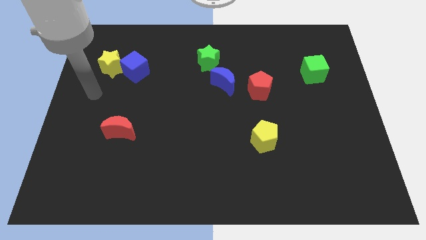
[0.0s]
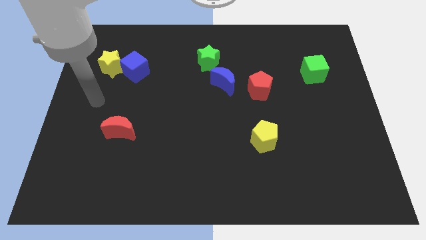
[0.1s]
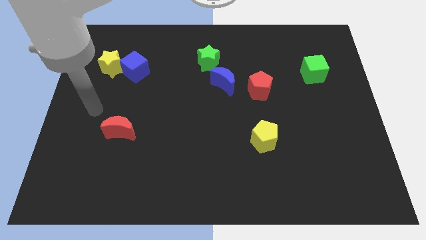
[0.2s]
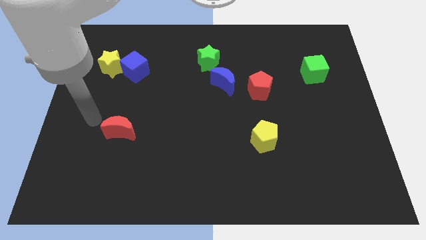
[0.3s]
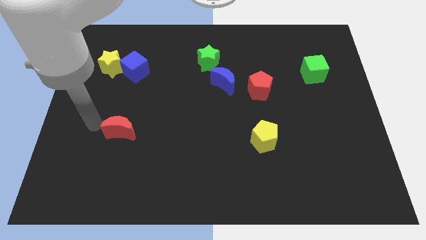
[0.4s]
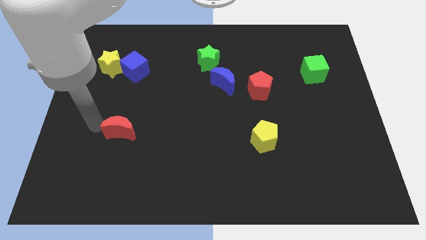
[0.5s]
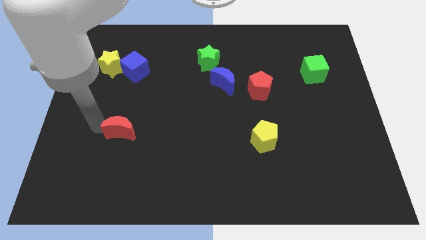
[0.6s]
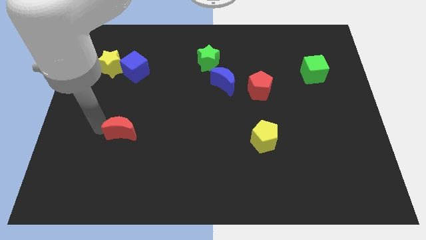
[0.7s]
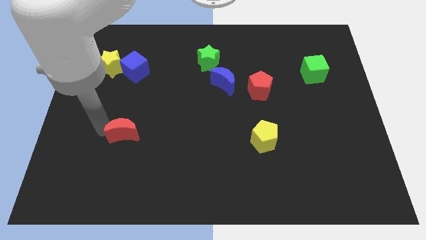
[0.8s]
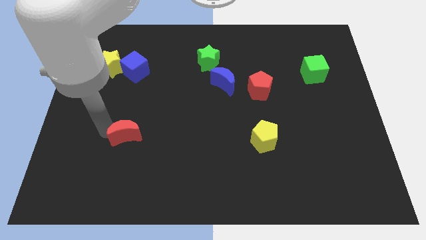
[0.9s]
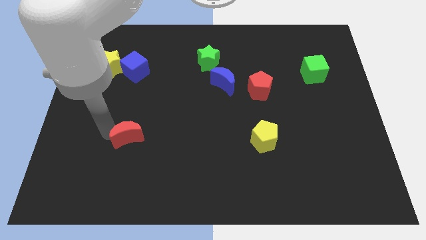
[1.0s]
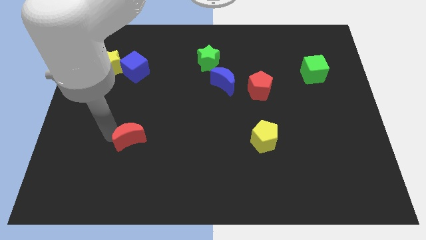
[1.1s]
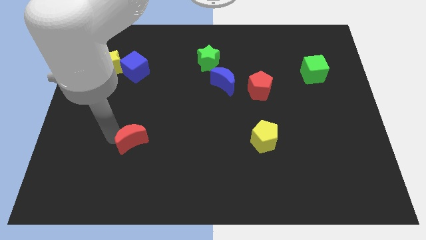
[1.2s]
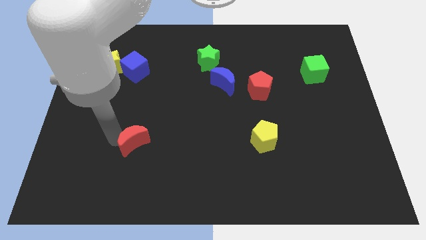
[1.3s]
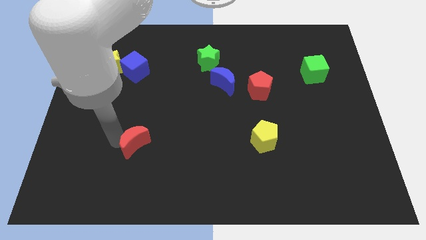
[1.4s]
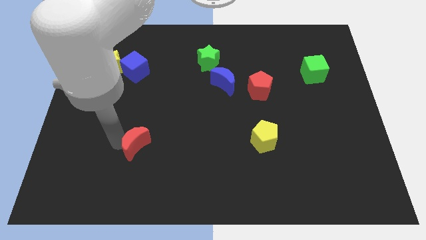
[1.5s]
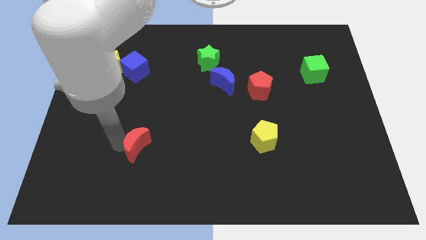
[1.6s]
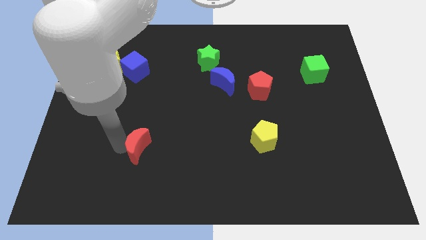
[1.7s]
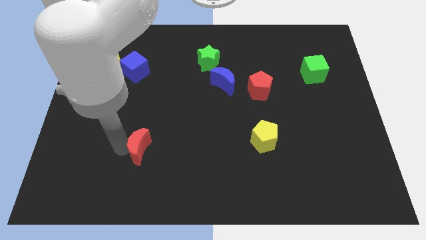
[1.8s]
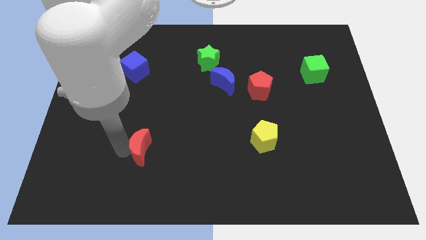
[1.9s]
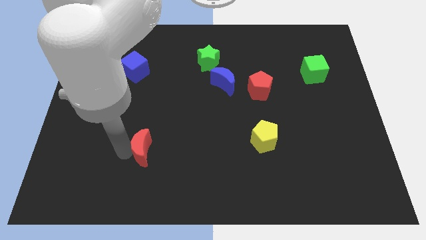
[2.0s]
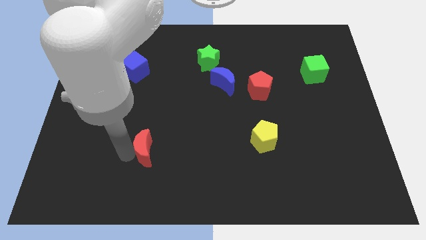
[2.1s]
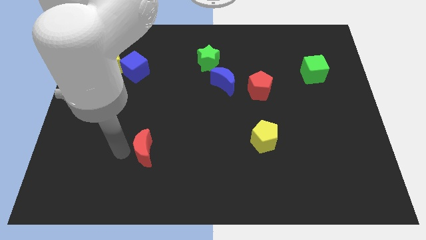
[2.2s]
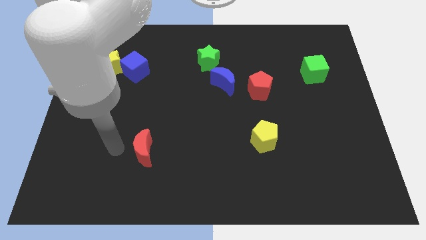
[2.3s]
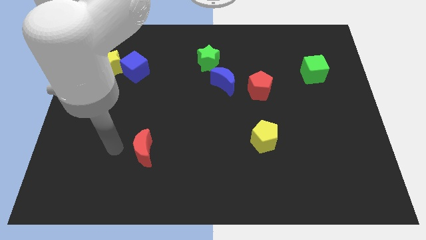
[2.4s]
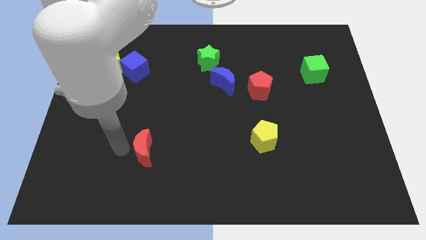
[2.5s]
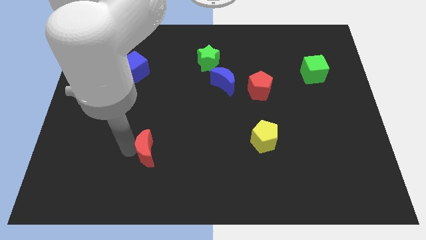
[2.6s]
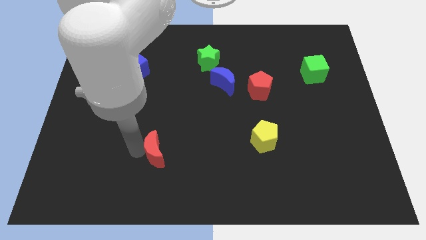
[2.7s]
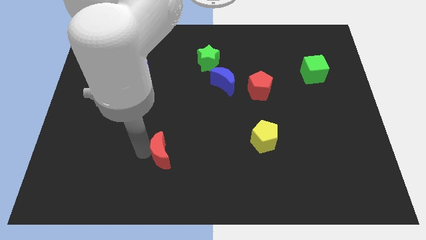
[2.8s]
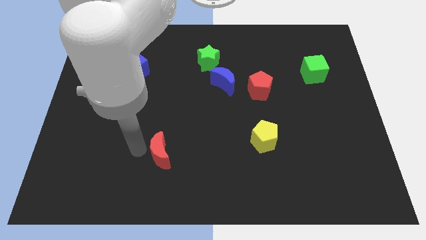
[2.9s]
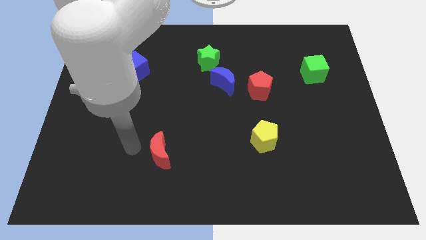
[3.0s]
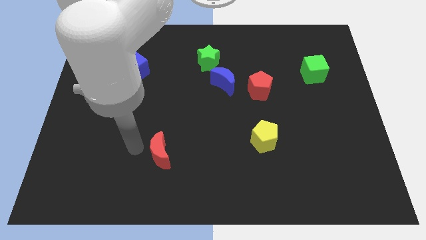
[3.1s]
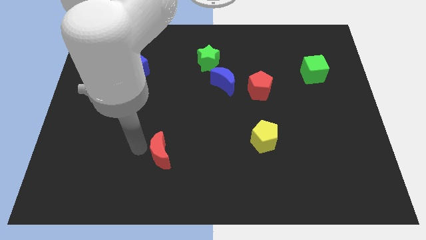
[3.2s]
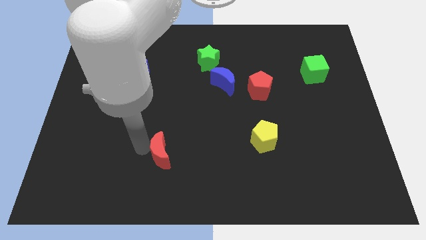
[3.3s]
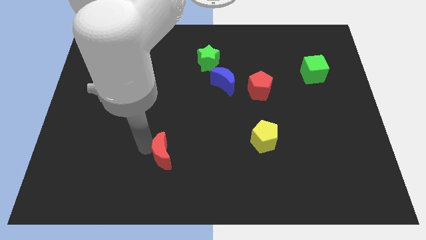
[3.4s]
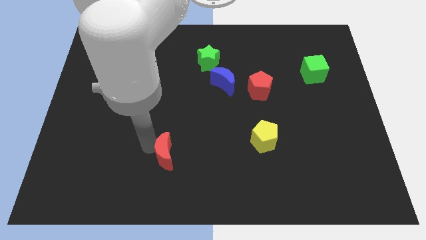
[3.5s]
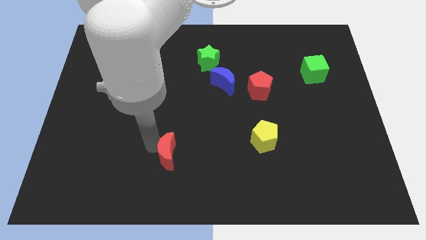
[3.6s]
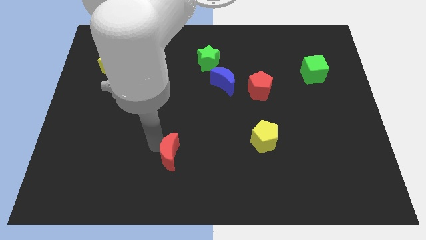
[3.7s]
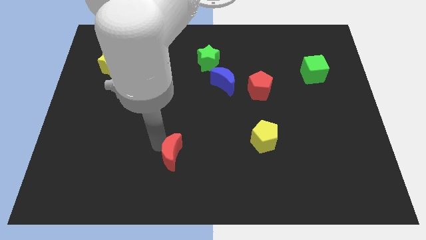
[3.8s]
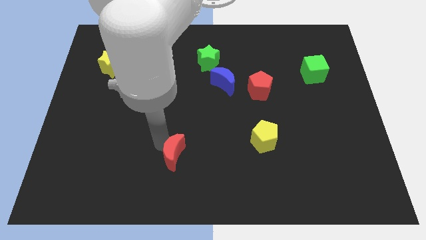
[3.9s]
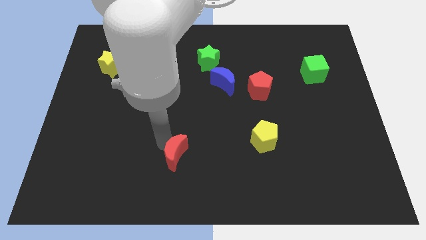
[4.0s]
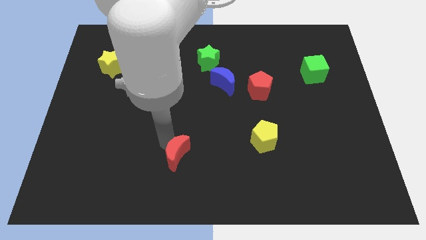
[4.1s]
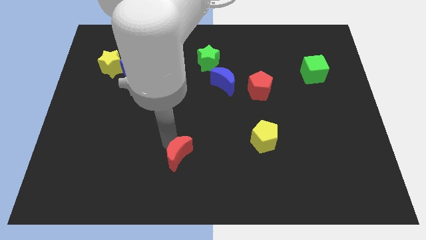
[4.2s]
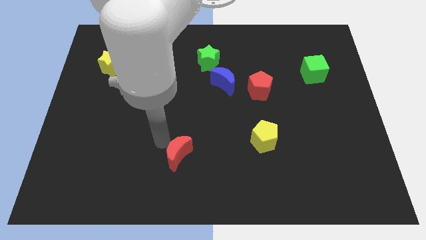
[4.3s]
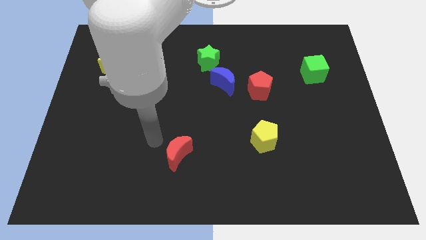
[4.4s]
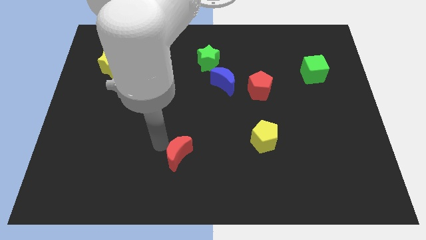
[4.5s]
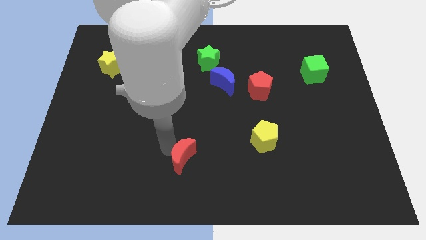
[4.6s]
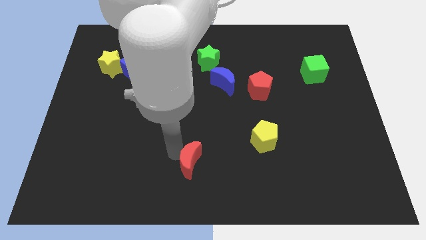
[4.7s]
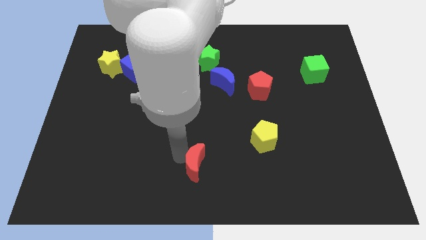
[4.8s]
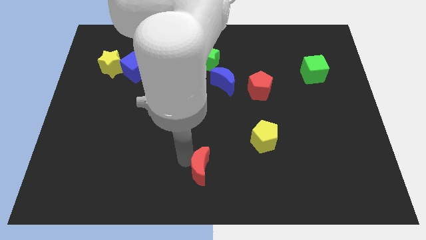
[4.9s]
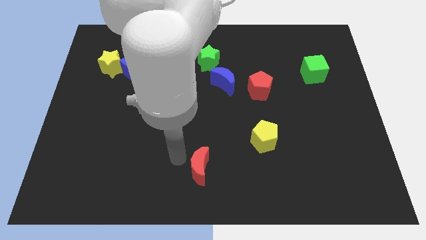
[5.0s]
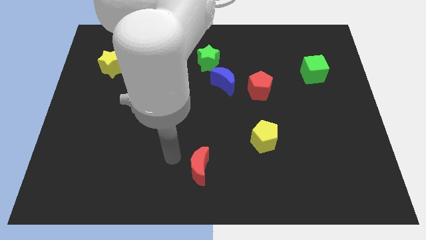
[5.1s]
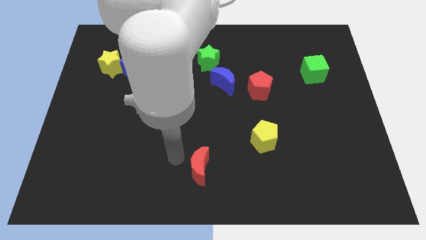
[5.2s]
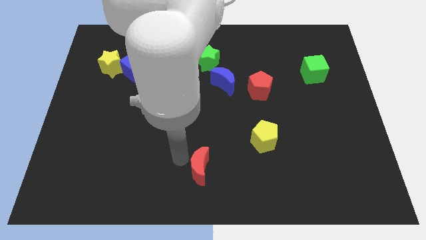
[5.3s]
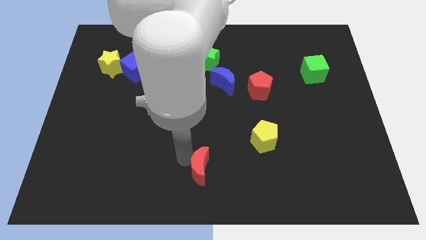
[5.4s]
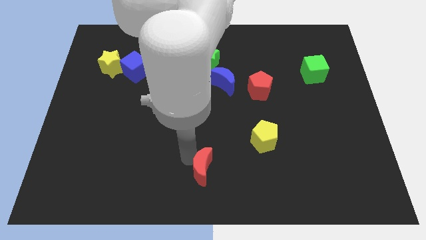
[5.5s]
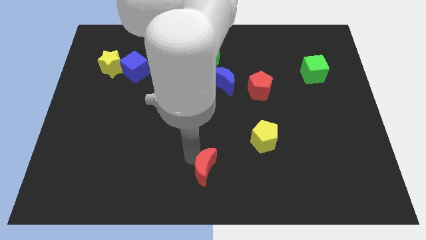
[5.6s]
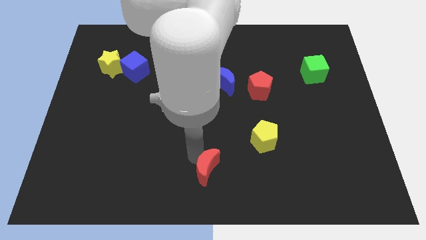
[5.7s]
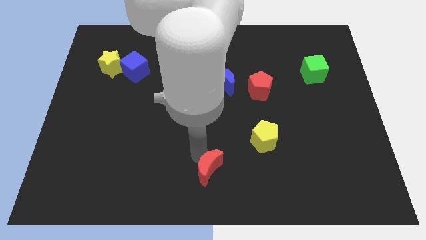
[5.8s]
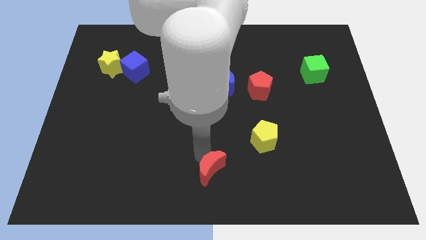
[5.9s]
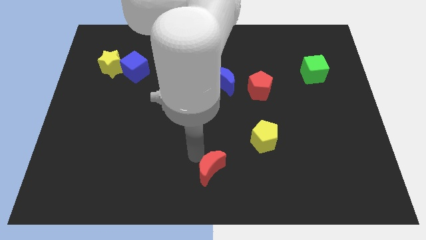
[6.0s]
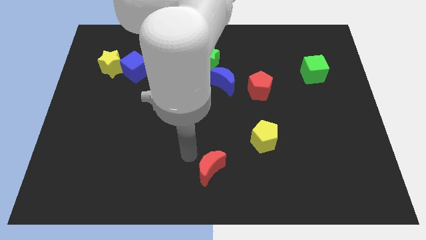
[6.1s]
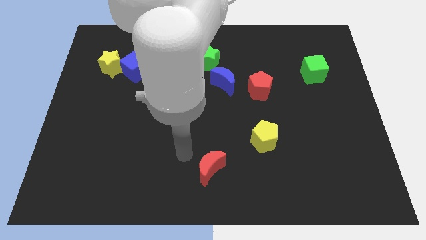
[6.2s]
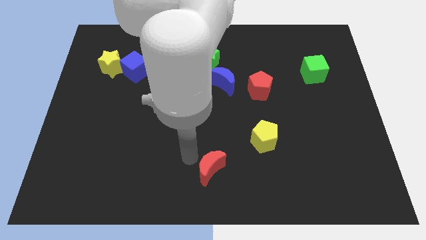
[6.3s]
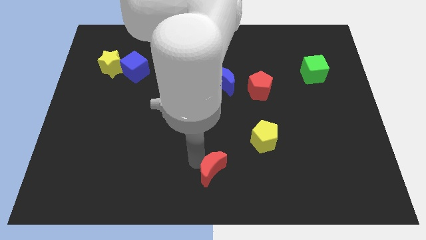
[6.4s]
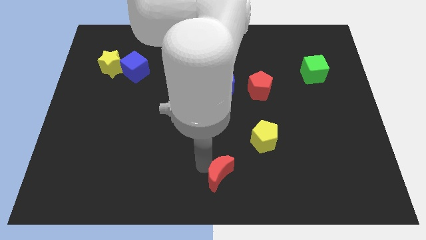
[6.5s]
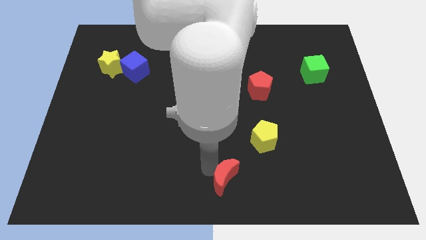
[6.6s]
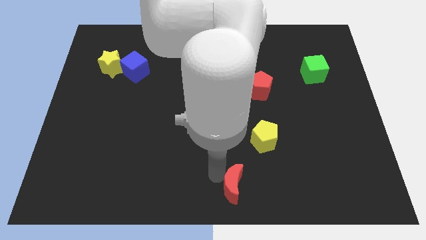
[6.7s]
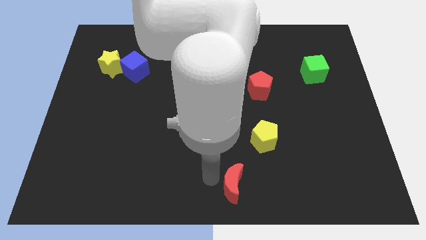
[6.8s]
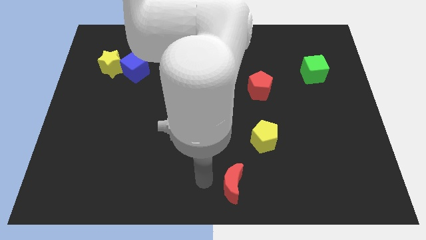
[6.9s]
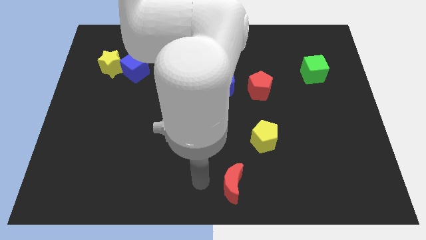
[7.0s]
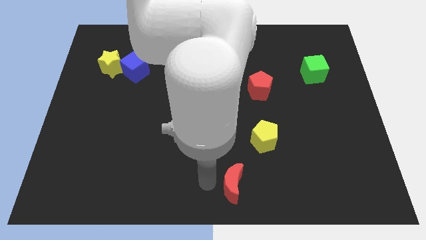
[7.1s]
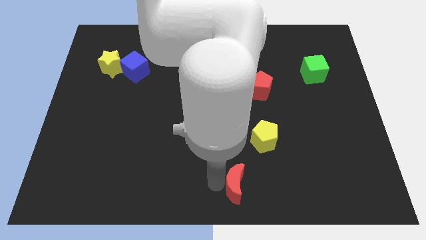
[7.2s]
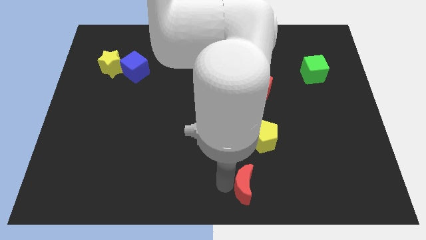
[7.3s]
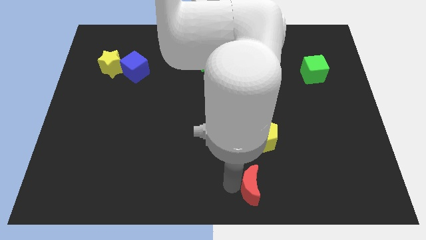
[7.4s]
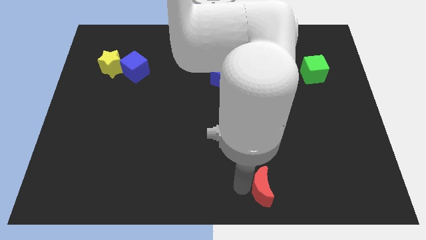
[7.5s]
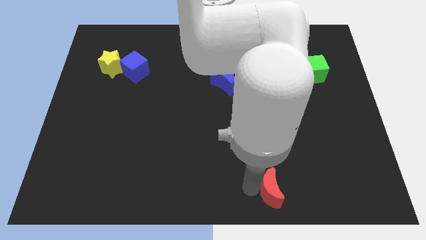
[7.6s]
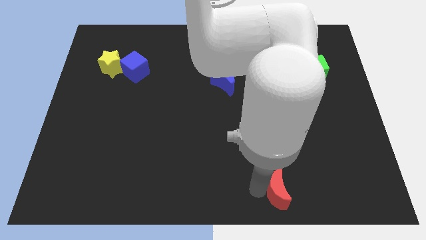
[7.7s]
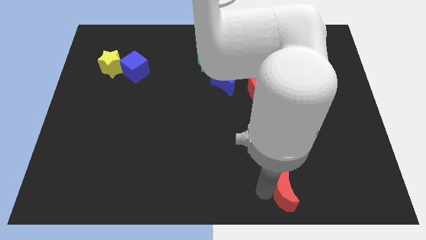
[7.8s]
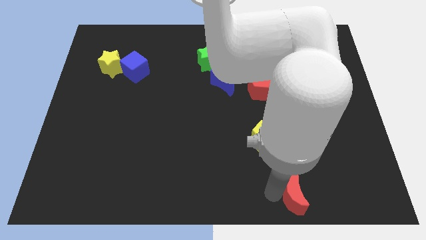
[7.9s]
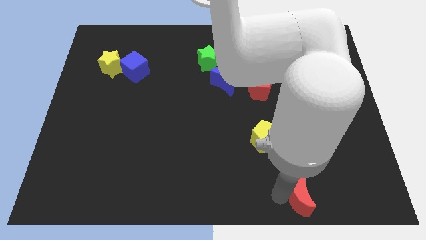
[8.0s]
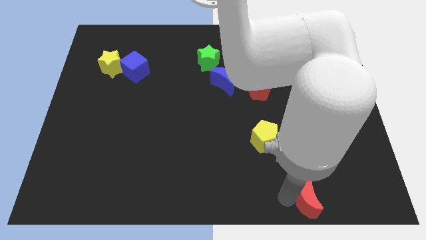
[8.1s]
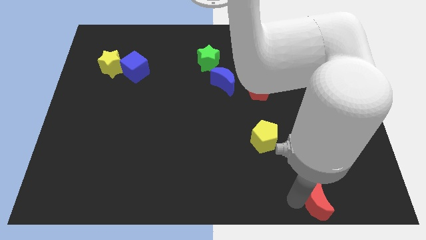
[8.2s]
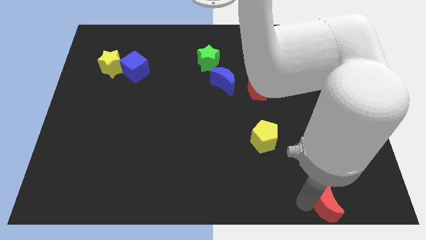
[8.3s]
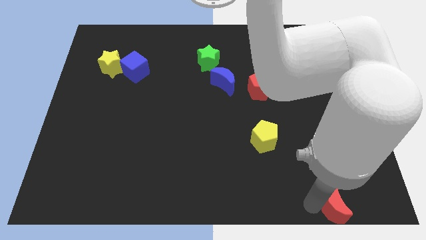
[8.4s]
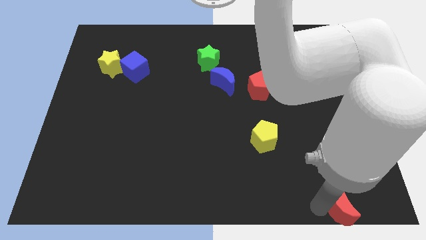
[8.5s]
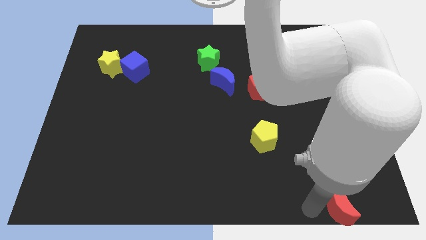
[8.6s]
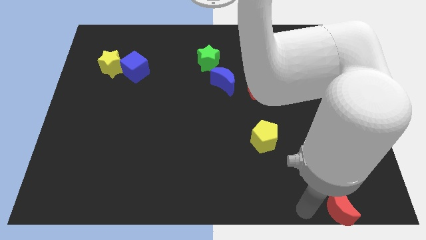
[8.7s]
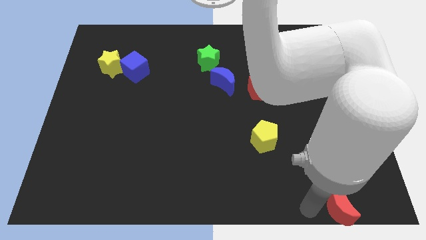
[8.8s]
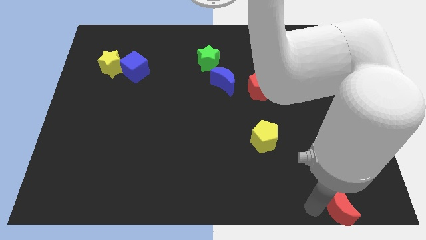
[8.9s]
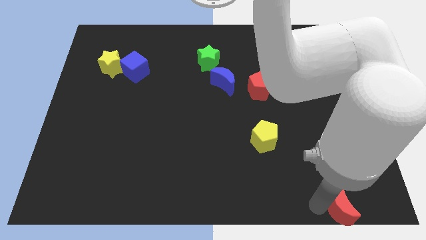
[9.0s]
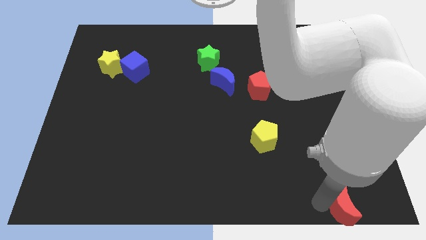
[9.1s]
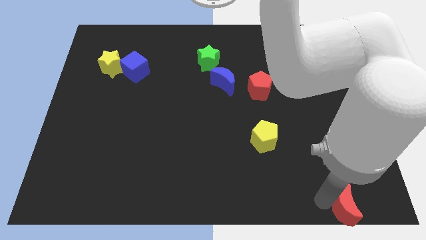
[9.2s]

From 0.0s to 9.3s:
push the red moon to the bottom right
